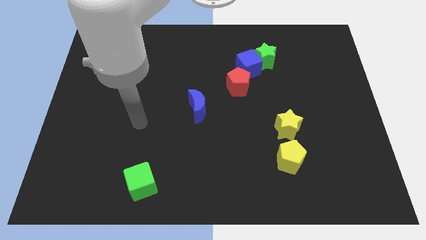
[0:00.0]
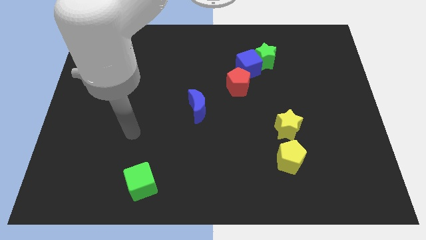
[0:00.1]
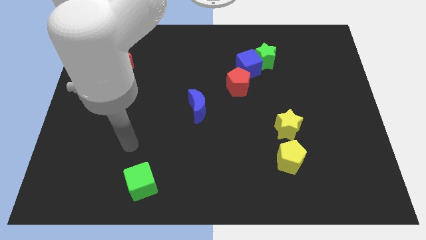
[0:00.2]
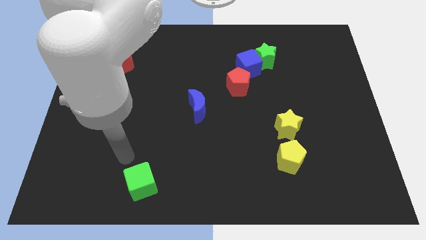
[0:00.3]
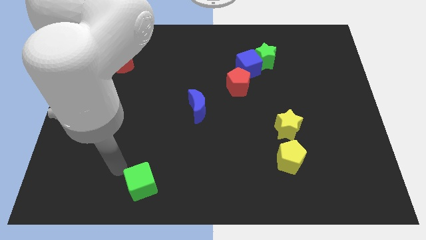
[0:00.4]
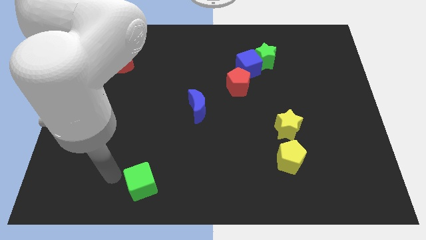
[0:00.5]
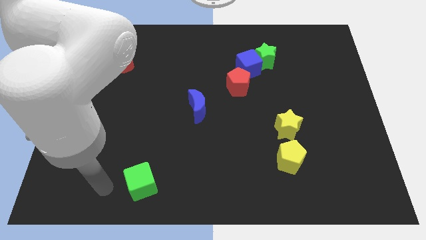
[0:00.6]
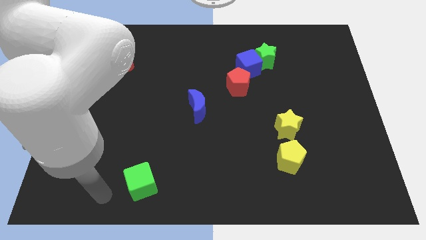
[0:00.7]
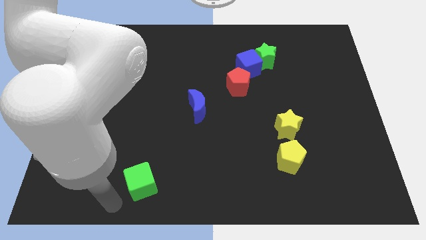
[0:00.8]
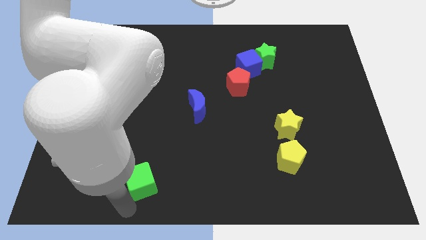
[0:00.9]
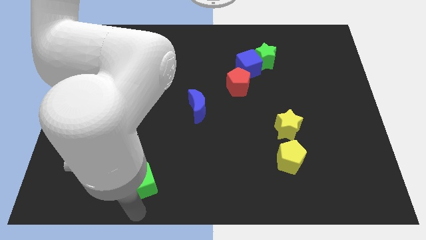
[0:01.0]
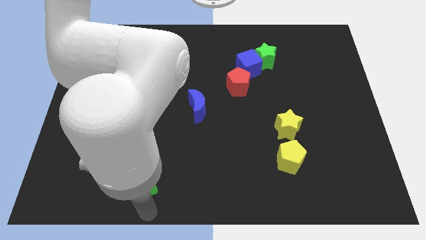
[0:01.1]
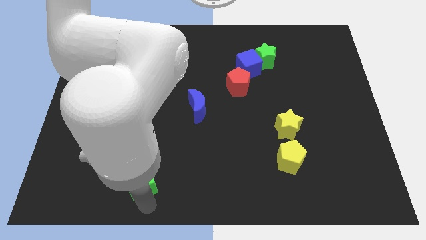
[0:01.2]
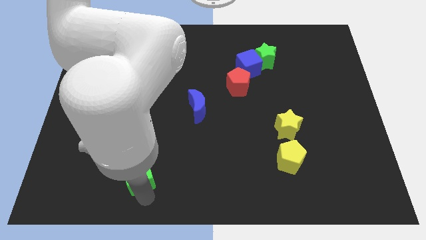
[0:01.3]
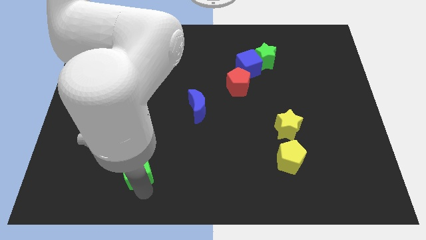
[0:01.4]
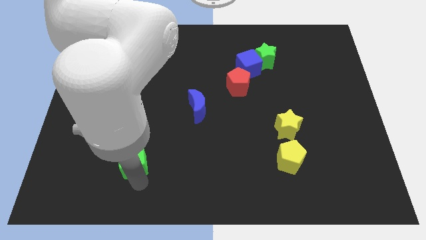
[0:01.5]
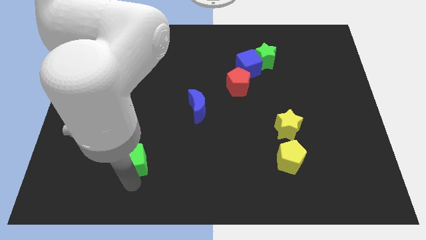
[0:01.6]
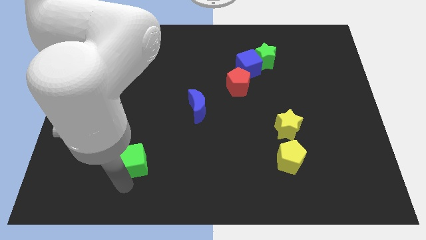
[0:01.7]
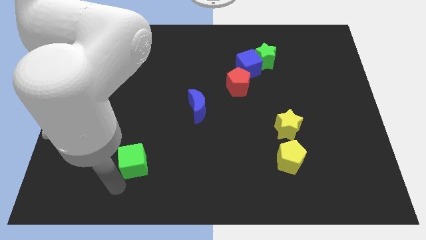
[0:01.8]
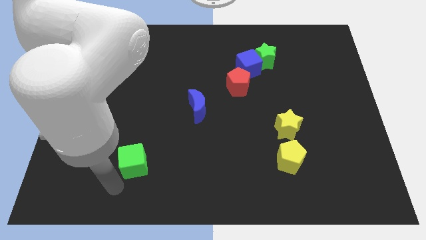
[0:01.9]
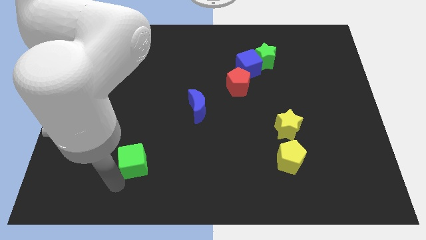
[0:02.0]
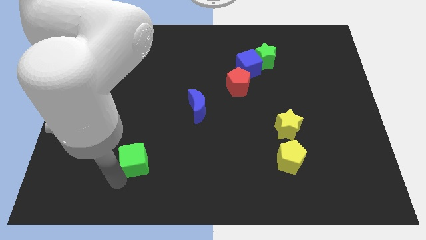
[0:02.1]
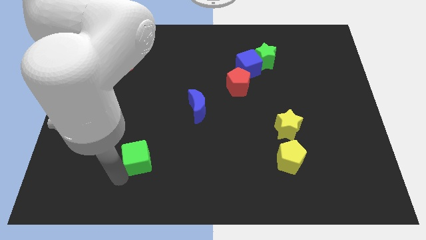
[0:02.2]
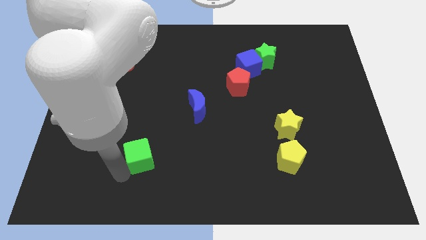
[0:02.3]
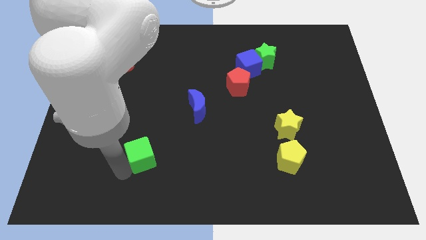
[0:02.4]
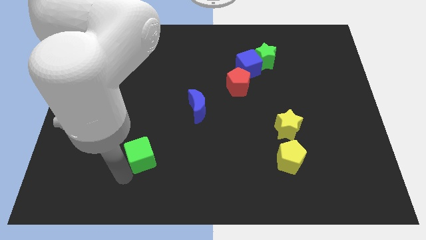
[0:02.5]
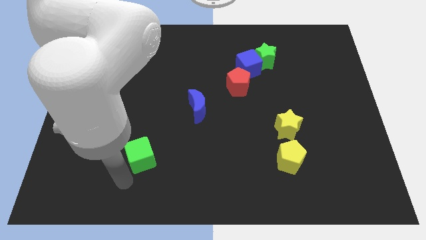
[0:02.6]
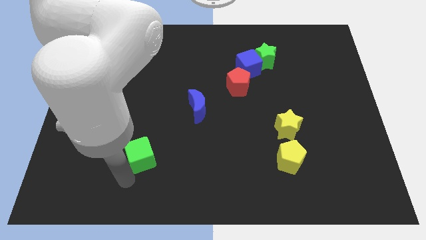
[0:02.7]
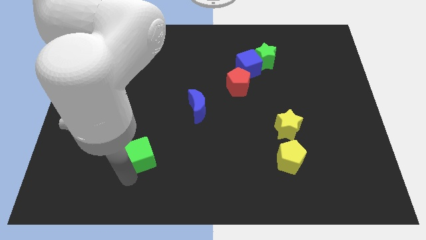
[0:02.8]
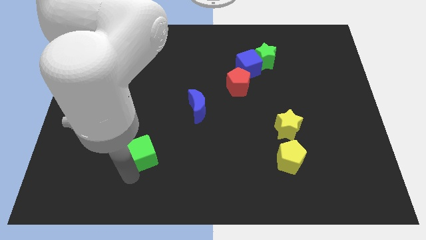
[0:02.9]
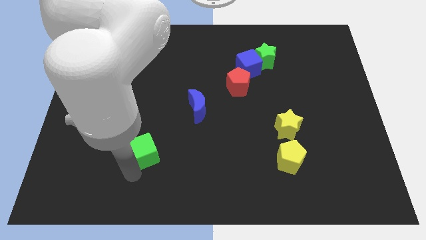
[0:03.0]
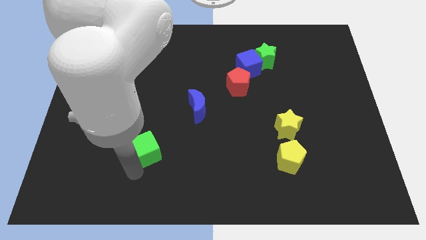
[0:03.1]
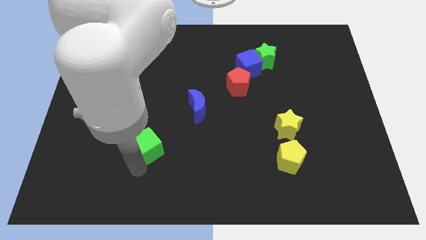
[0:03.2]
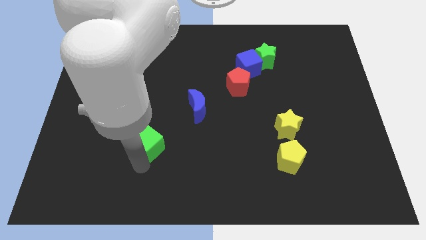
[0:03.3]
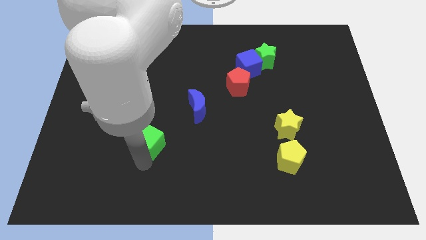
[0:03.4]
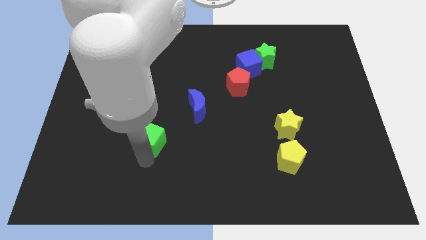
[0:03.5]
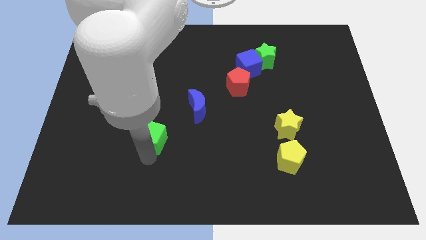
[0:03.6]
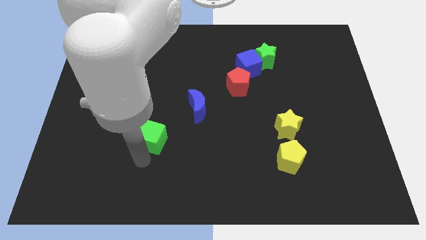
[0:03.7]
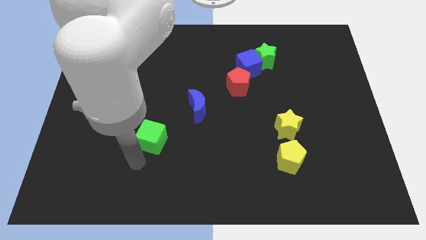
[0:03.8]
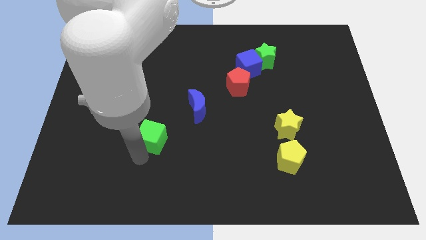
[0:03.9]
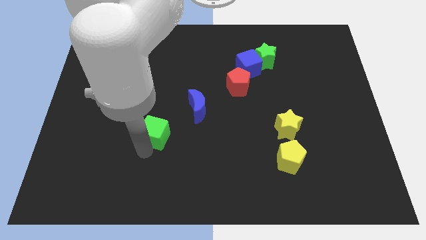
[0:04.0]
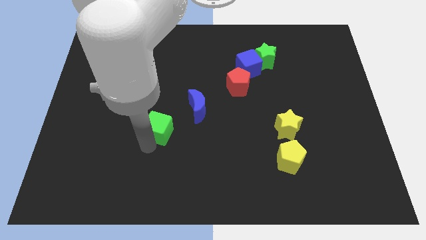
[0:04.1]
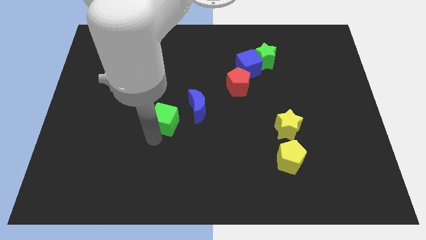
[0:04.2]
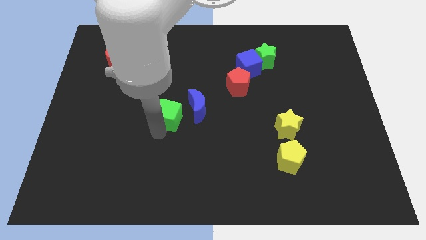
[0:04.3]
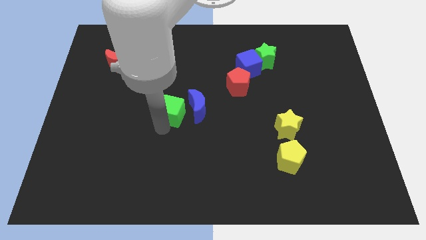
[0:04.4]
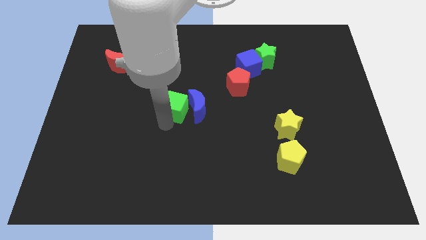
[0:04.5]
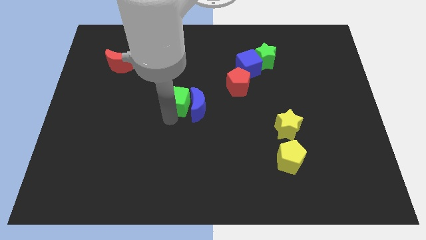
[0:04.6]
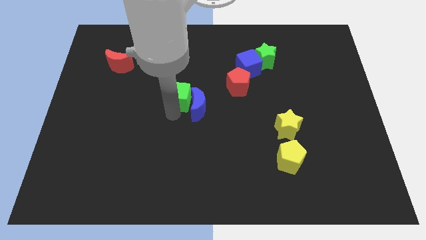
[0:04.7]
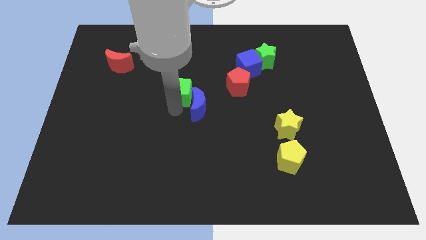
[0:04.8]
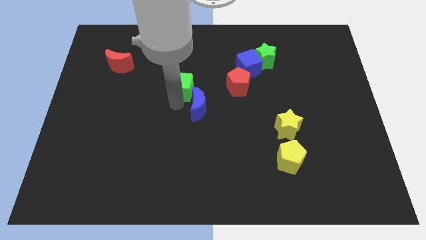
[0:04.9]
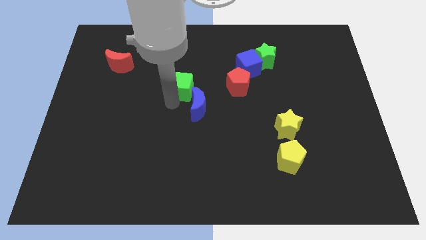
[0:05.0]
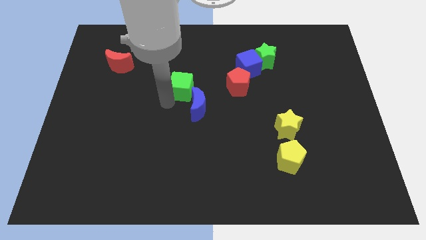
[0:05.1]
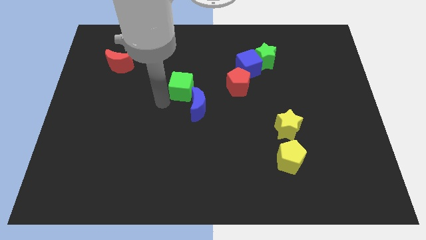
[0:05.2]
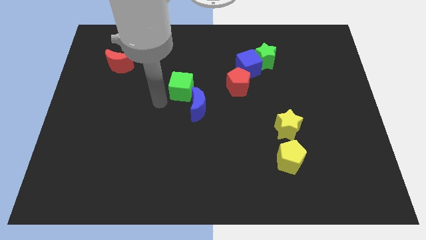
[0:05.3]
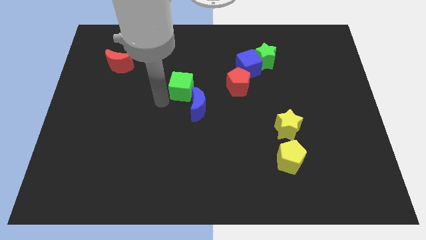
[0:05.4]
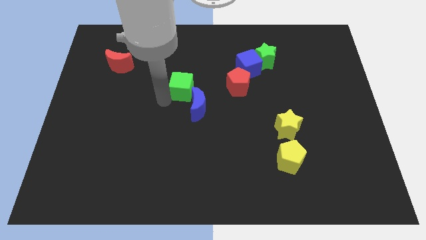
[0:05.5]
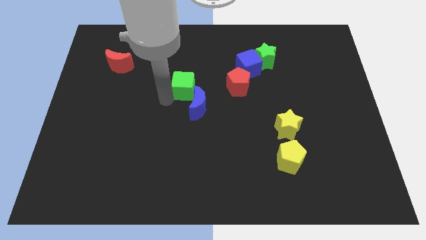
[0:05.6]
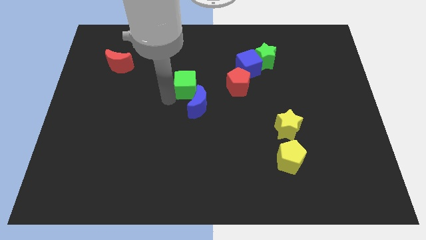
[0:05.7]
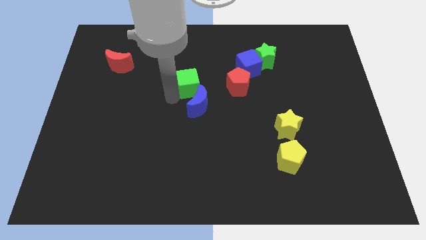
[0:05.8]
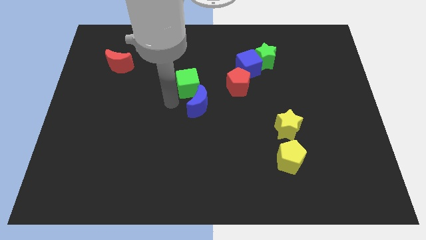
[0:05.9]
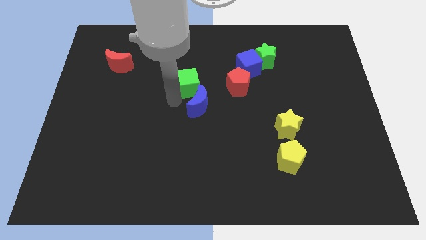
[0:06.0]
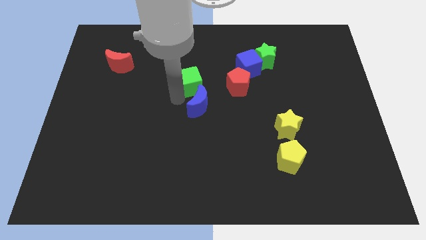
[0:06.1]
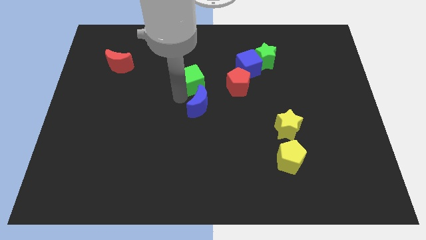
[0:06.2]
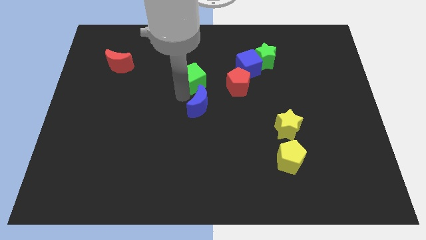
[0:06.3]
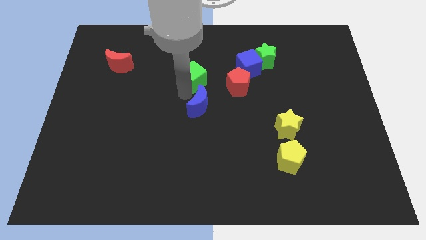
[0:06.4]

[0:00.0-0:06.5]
push the green cube left of the blue cube

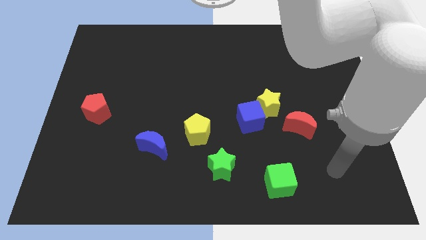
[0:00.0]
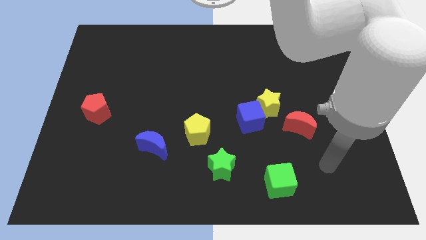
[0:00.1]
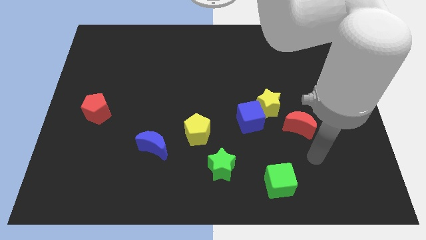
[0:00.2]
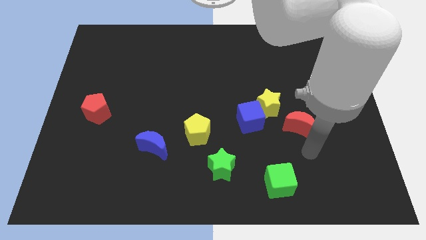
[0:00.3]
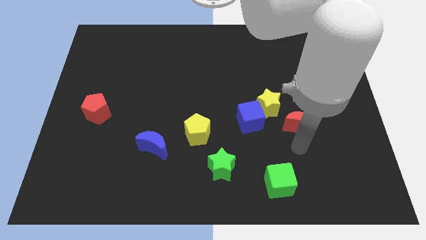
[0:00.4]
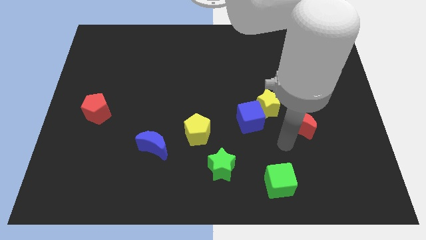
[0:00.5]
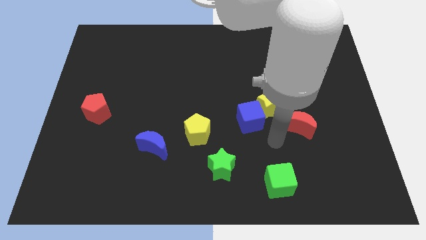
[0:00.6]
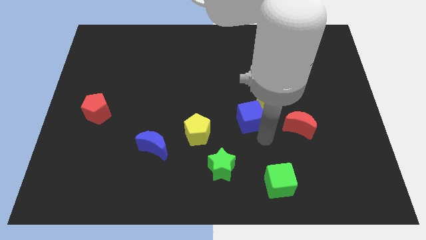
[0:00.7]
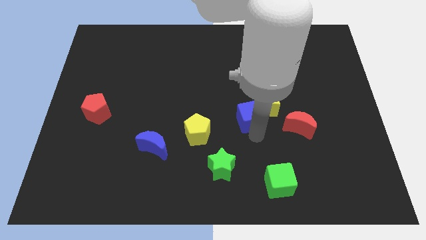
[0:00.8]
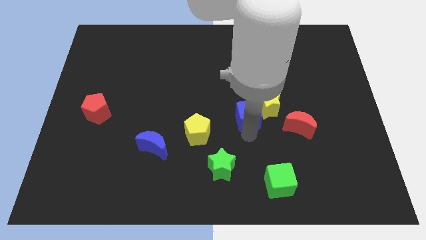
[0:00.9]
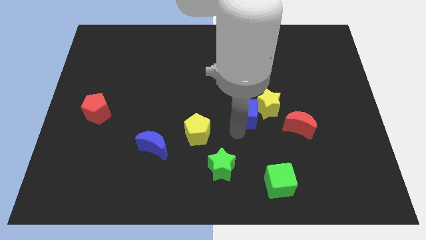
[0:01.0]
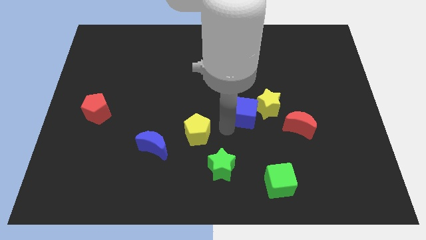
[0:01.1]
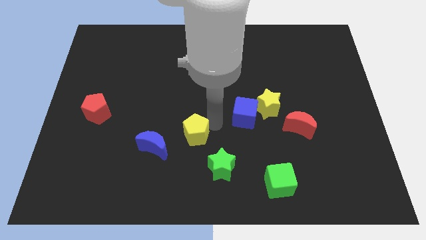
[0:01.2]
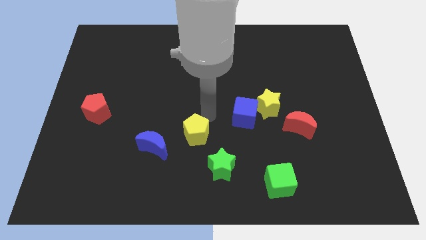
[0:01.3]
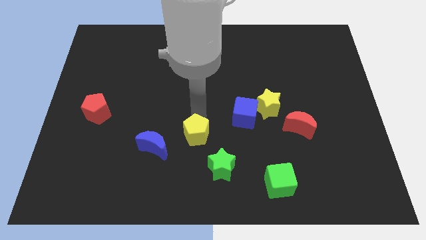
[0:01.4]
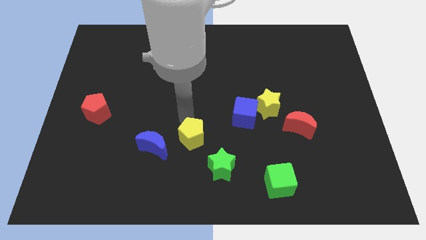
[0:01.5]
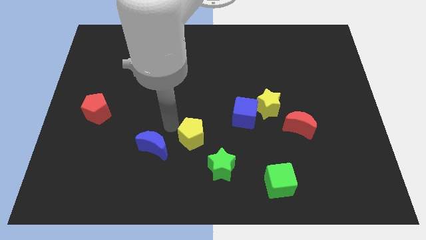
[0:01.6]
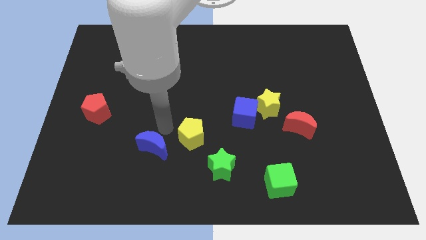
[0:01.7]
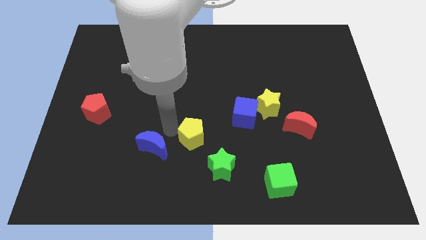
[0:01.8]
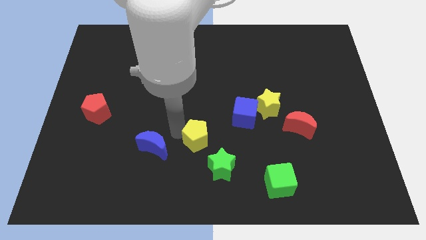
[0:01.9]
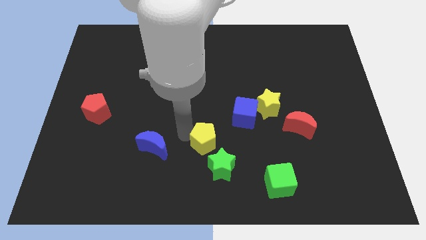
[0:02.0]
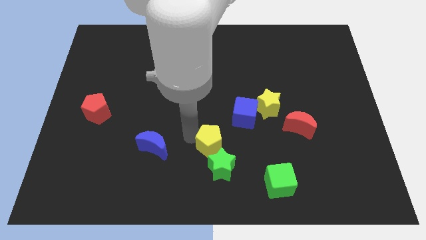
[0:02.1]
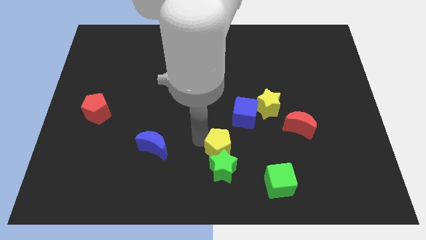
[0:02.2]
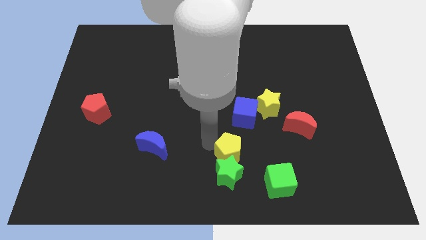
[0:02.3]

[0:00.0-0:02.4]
put the yellow pentagon diagonally up and to the left of the green cube
